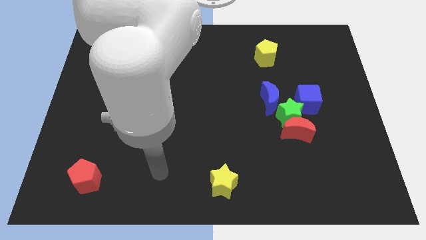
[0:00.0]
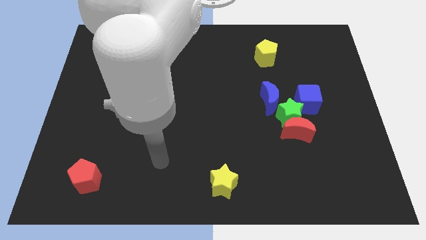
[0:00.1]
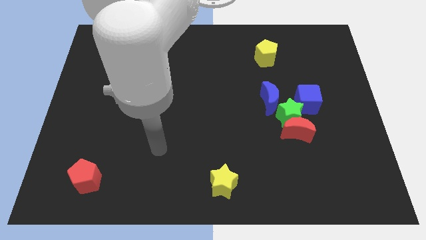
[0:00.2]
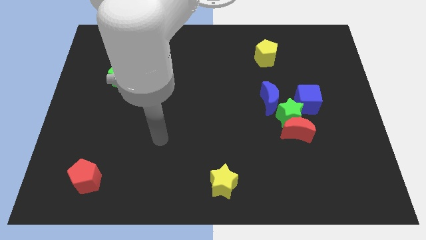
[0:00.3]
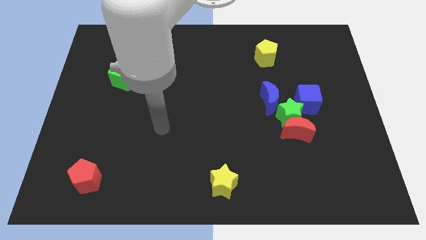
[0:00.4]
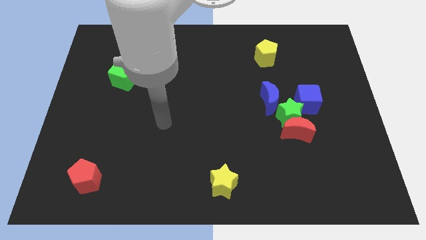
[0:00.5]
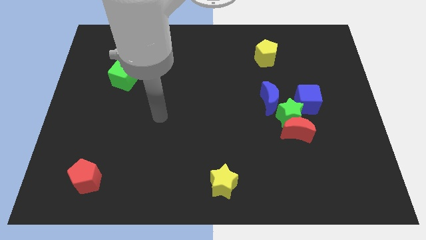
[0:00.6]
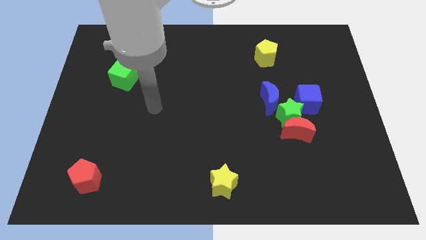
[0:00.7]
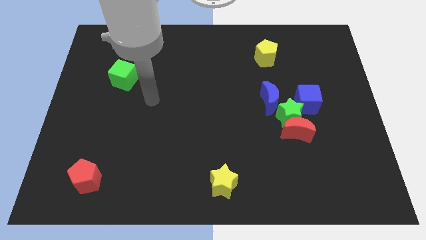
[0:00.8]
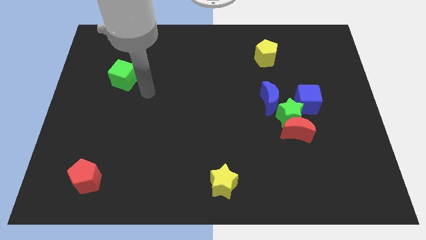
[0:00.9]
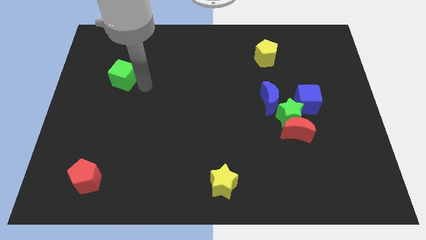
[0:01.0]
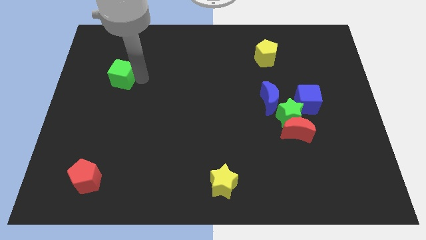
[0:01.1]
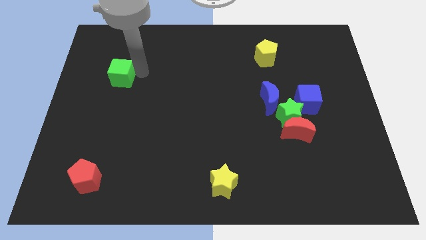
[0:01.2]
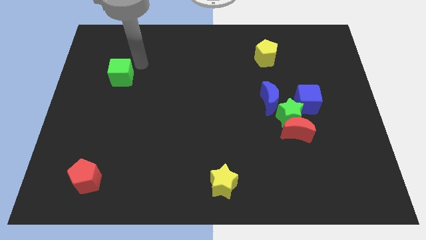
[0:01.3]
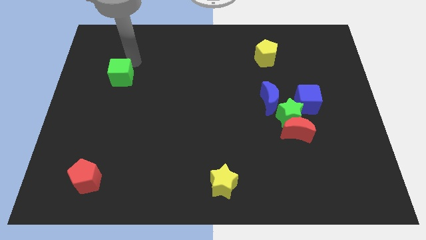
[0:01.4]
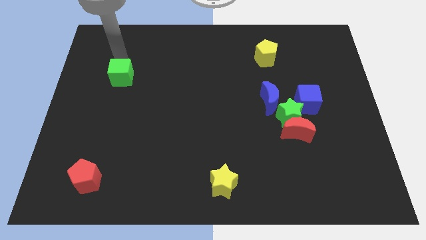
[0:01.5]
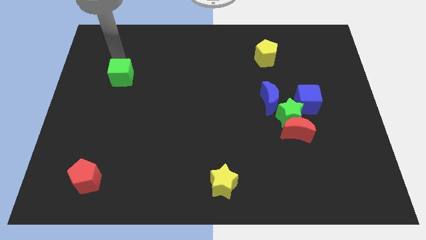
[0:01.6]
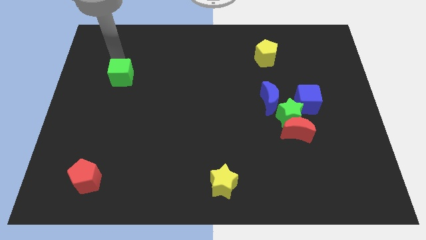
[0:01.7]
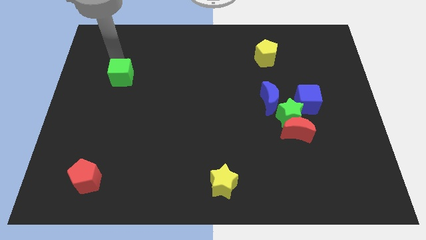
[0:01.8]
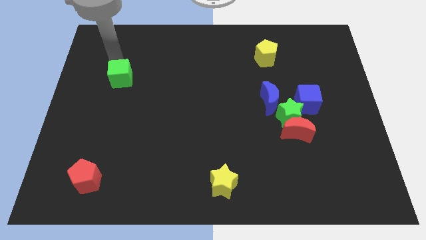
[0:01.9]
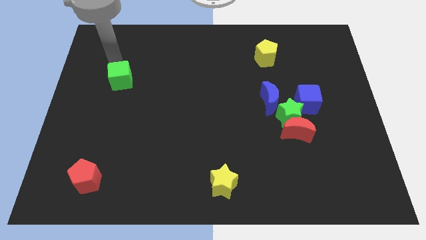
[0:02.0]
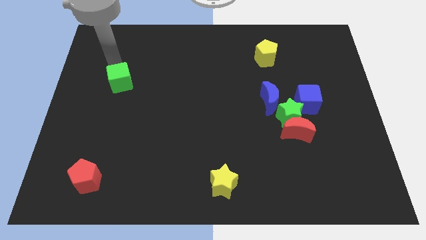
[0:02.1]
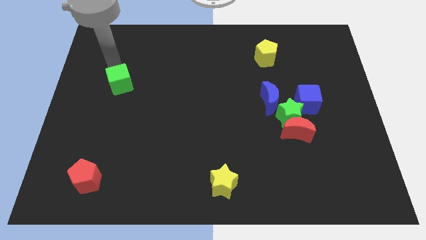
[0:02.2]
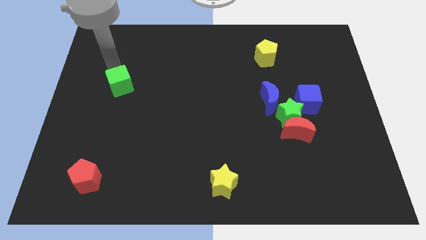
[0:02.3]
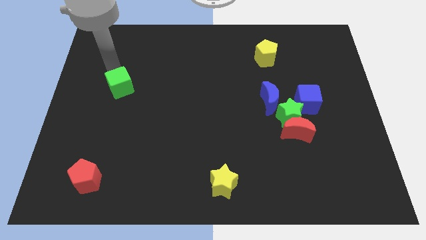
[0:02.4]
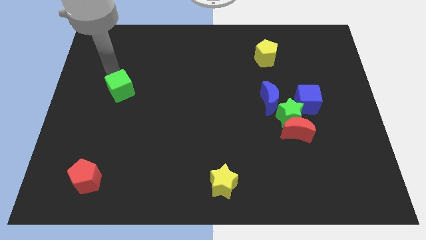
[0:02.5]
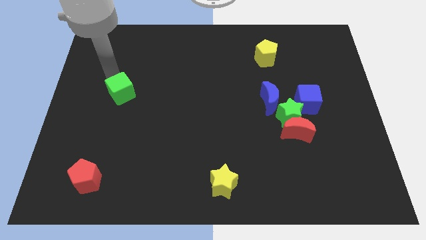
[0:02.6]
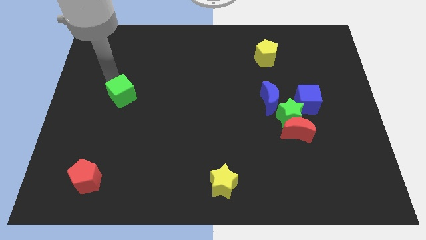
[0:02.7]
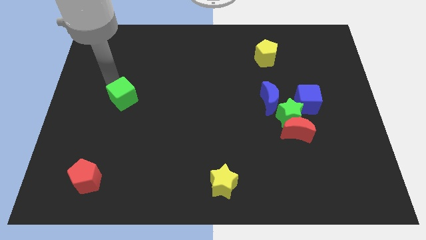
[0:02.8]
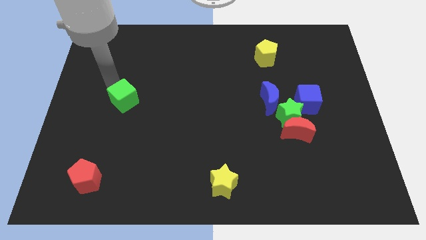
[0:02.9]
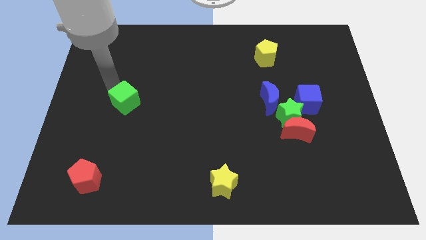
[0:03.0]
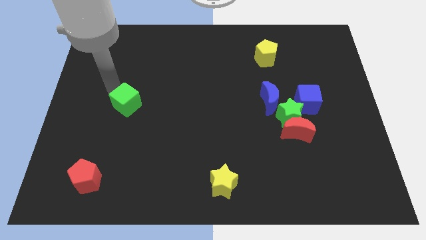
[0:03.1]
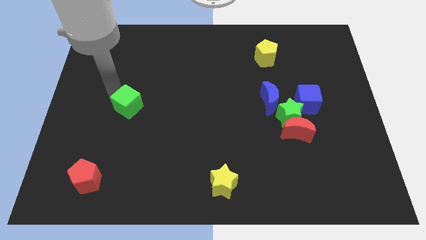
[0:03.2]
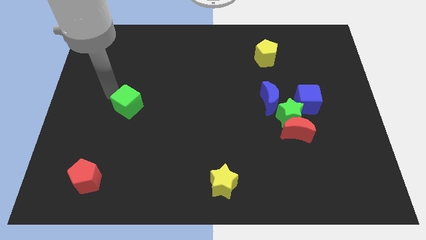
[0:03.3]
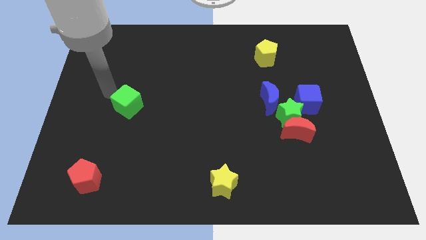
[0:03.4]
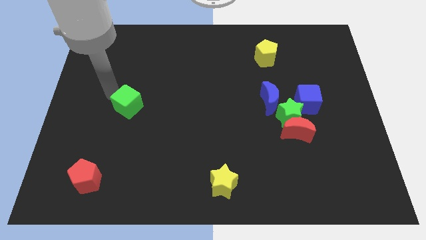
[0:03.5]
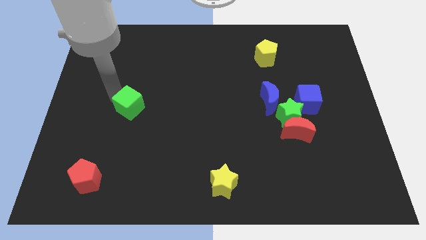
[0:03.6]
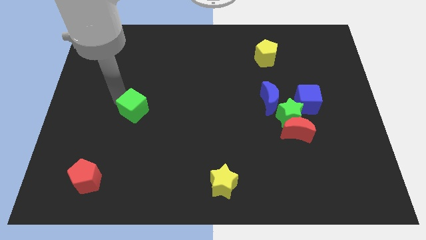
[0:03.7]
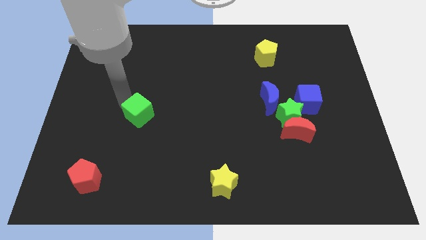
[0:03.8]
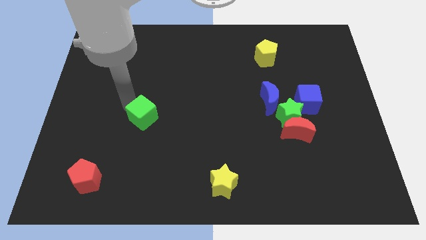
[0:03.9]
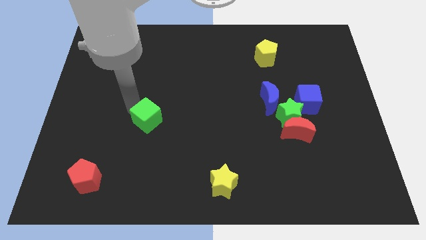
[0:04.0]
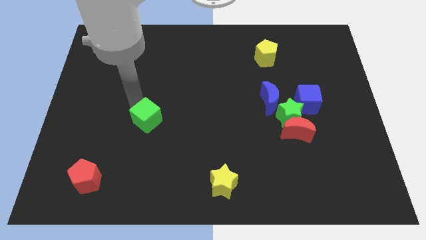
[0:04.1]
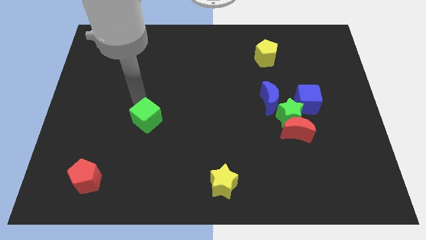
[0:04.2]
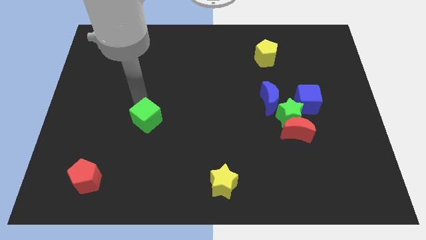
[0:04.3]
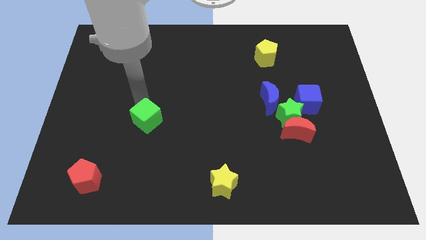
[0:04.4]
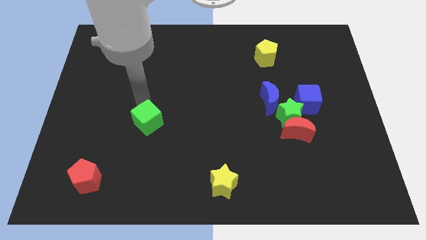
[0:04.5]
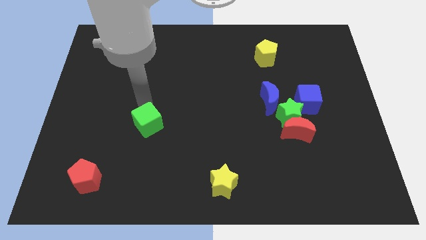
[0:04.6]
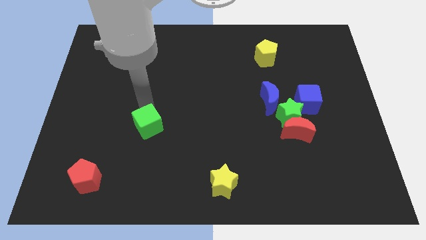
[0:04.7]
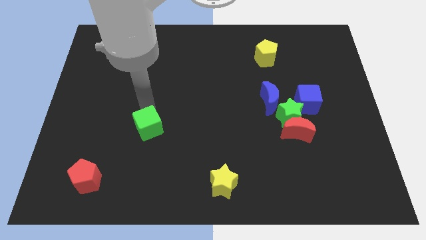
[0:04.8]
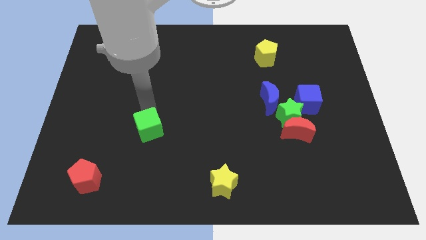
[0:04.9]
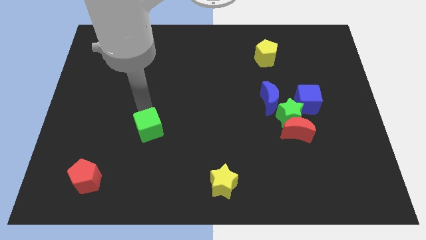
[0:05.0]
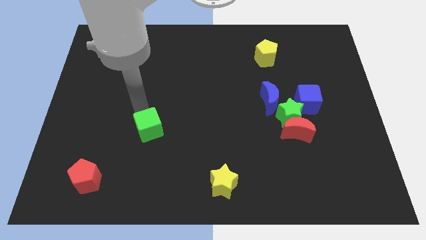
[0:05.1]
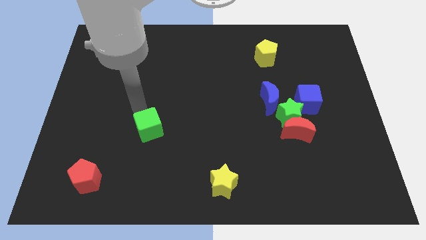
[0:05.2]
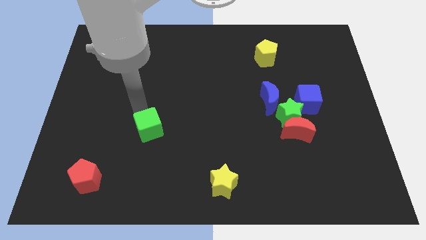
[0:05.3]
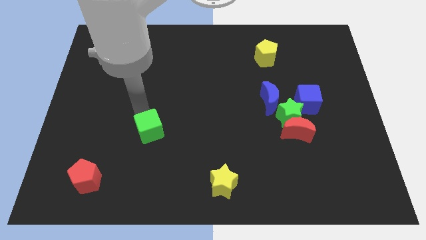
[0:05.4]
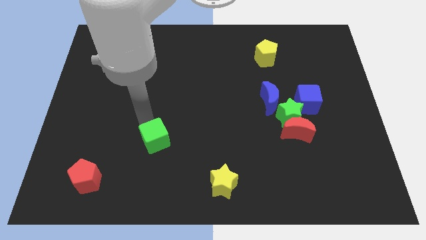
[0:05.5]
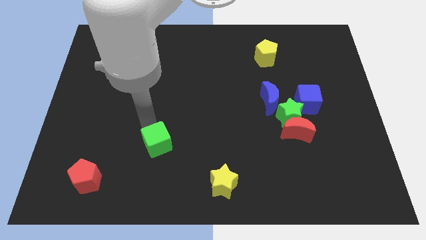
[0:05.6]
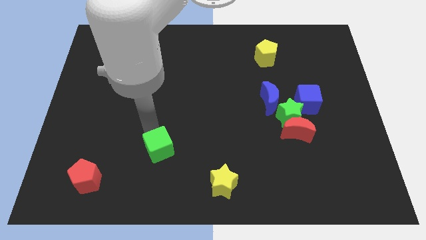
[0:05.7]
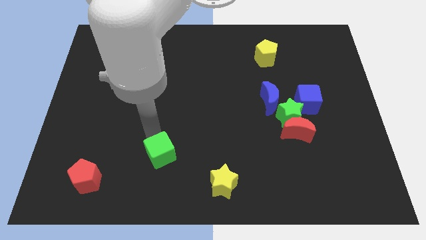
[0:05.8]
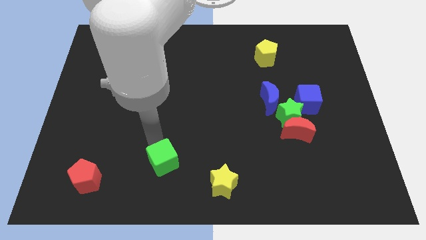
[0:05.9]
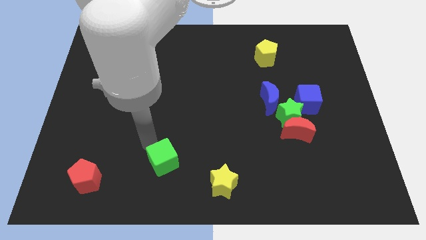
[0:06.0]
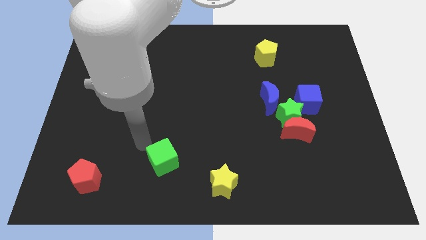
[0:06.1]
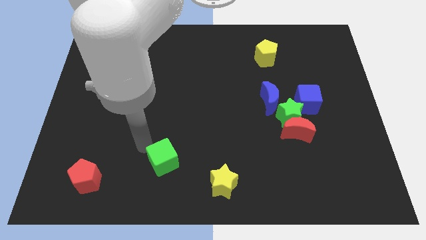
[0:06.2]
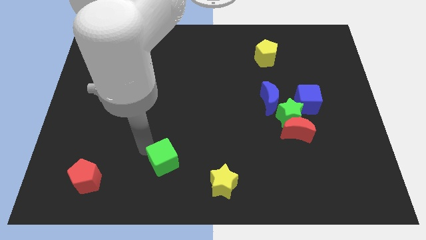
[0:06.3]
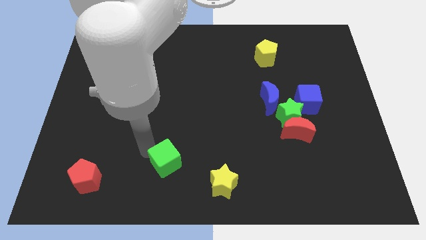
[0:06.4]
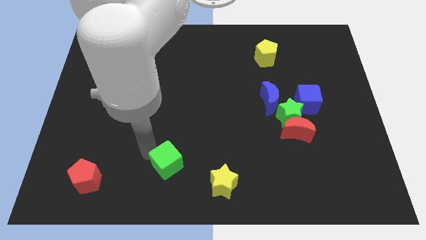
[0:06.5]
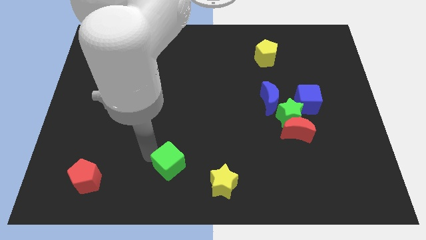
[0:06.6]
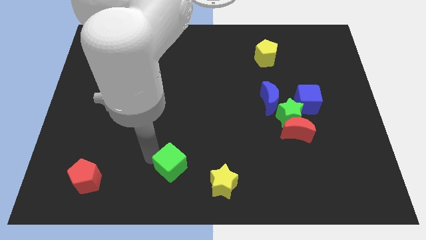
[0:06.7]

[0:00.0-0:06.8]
put the green cube to the bottom
